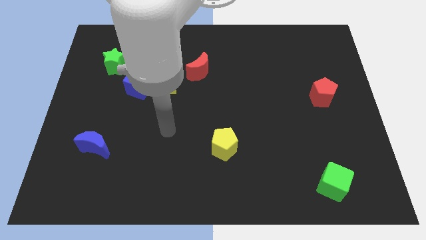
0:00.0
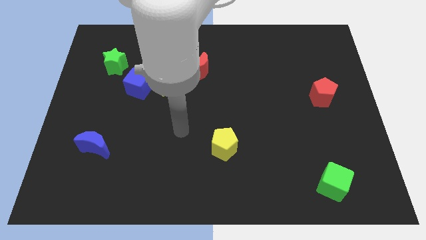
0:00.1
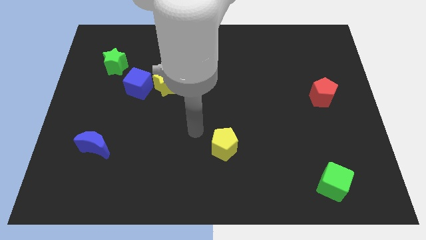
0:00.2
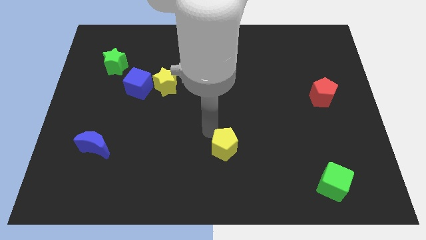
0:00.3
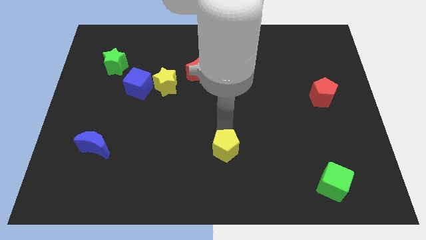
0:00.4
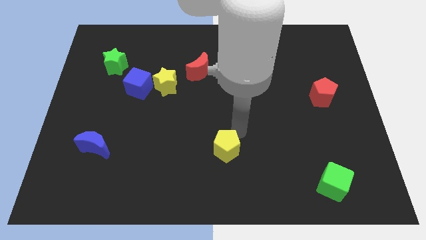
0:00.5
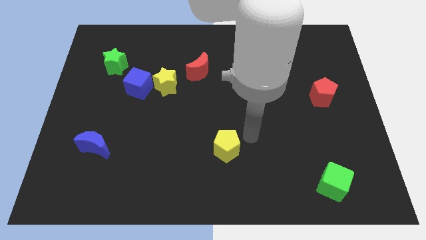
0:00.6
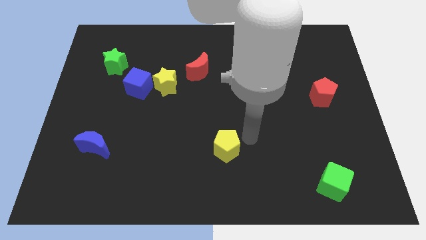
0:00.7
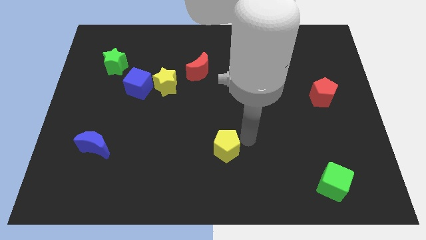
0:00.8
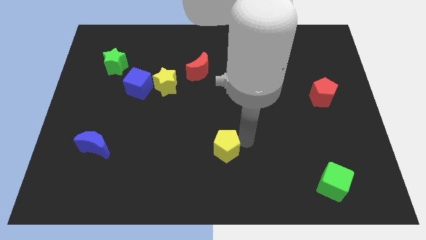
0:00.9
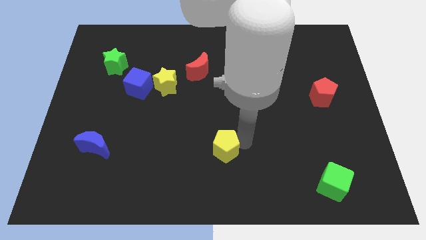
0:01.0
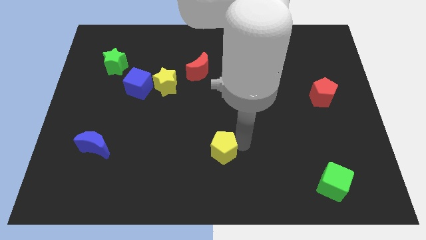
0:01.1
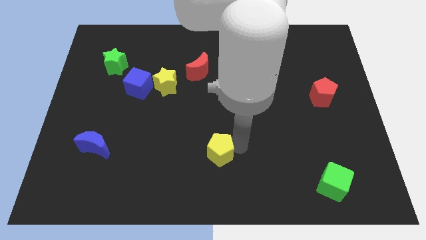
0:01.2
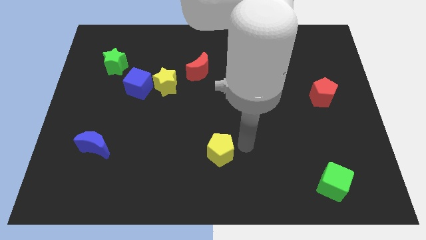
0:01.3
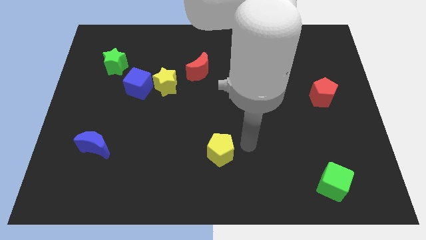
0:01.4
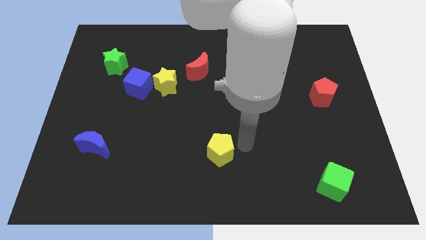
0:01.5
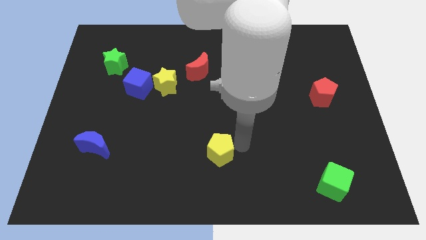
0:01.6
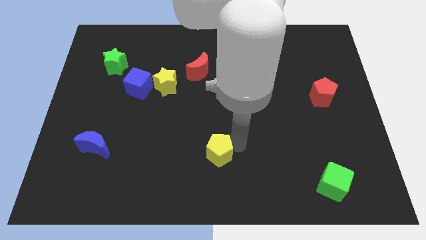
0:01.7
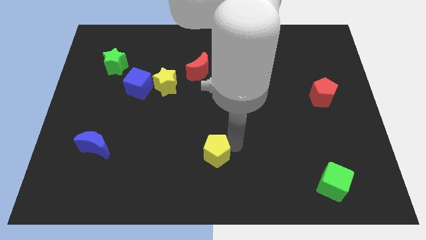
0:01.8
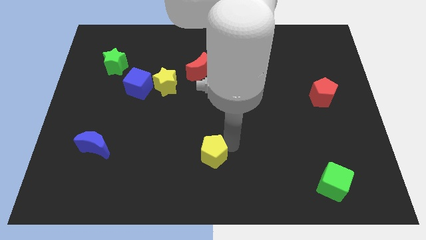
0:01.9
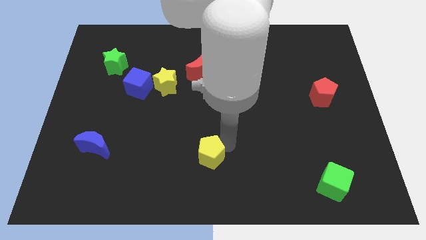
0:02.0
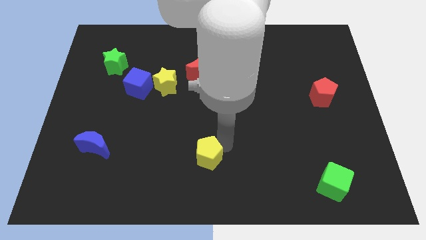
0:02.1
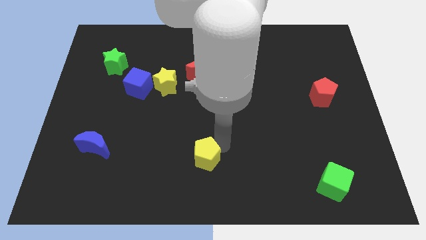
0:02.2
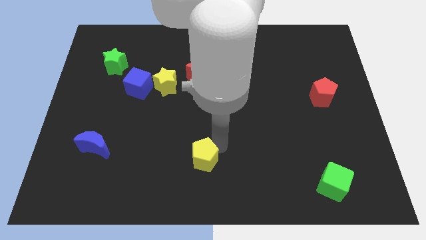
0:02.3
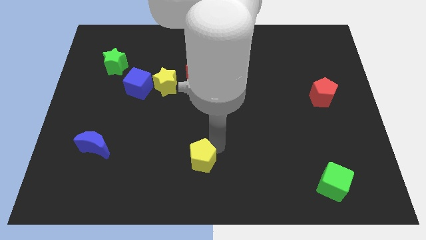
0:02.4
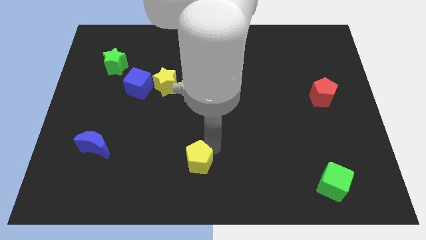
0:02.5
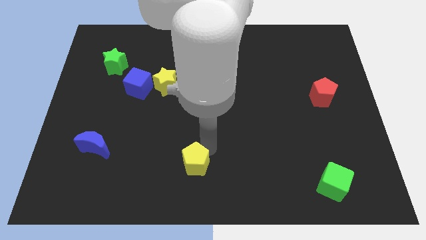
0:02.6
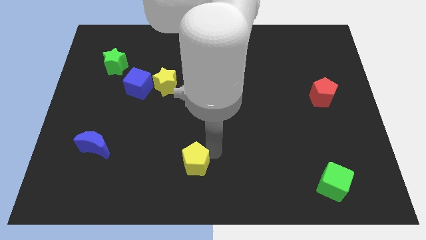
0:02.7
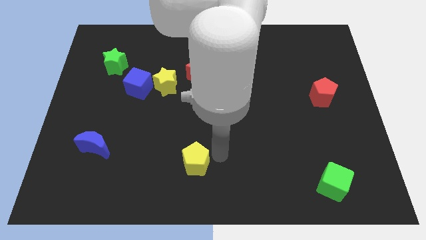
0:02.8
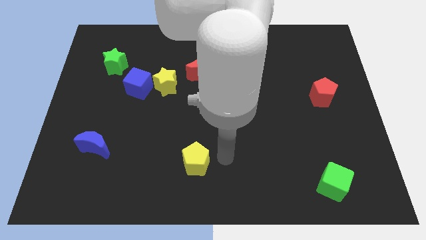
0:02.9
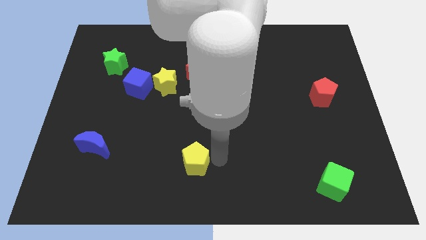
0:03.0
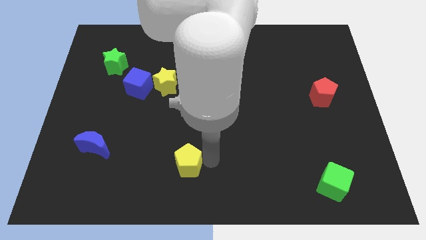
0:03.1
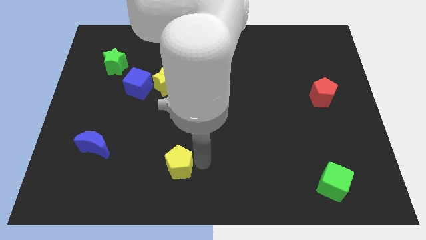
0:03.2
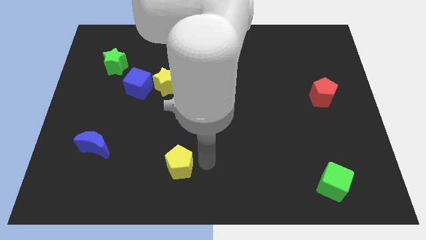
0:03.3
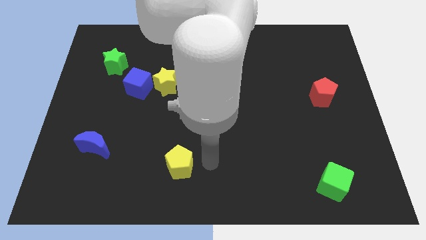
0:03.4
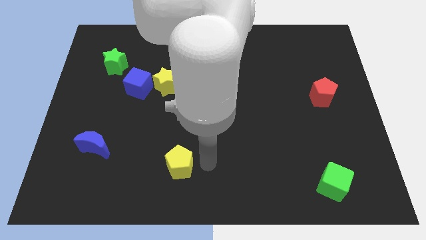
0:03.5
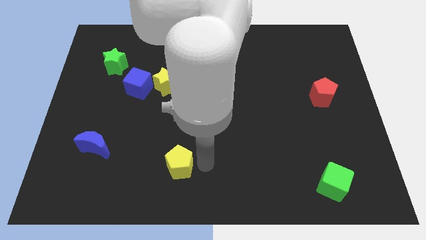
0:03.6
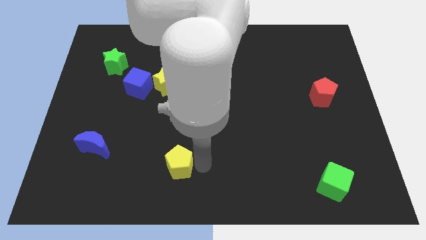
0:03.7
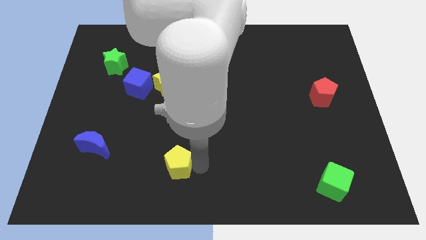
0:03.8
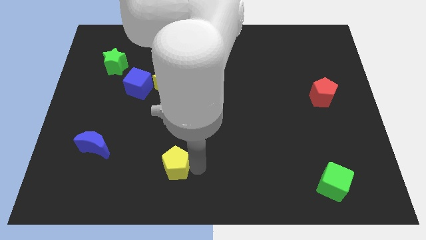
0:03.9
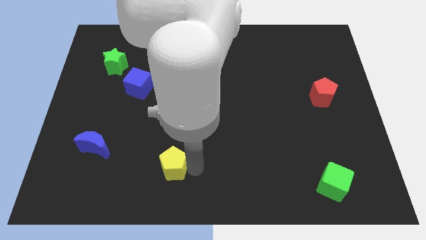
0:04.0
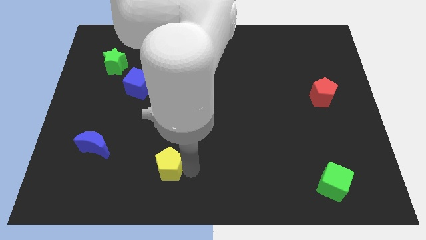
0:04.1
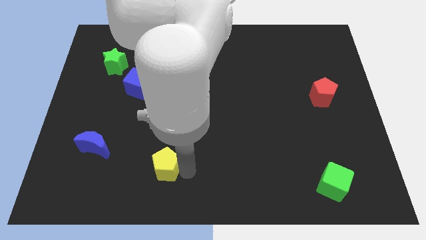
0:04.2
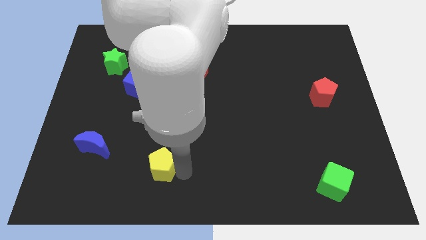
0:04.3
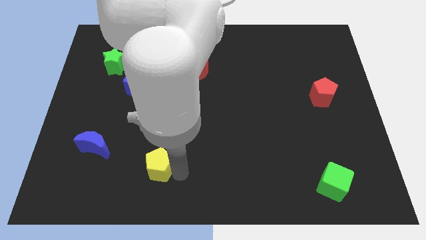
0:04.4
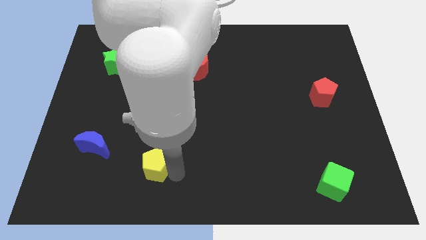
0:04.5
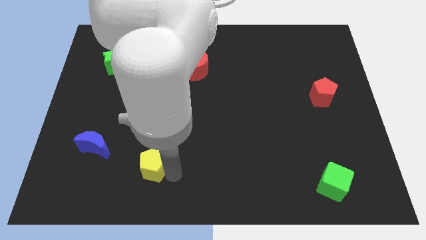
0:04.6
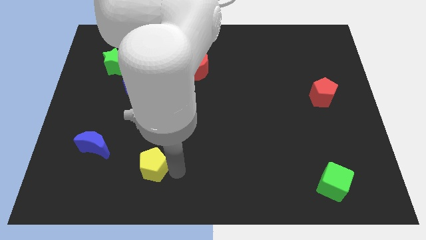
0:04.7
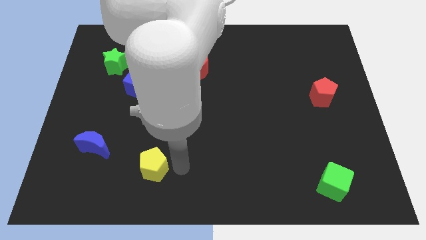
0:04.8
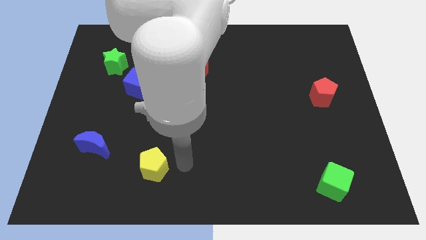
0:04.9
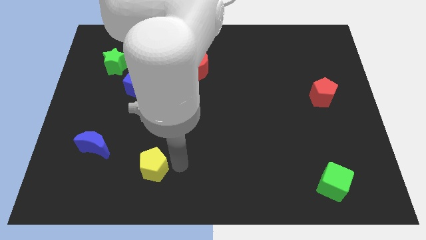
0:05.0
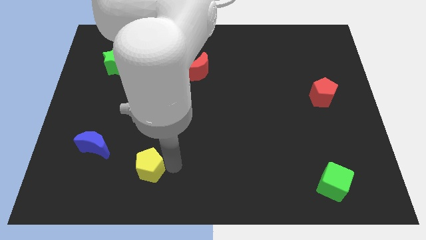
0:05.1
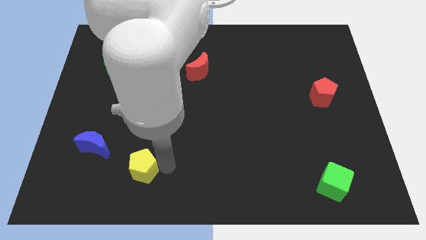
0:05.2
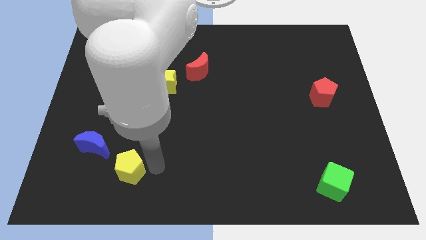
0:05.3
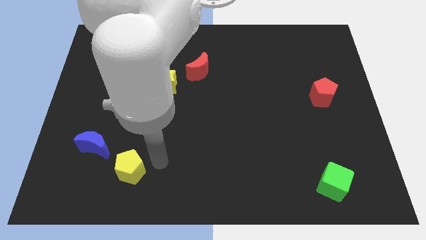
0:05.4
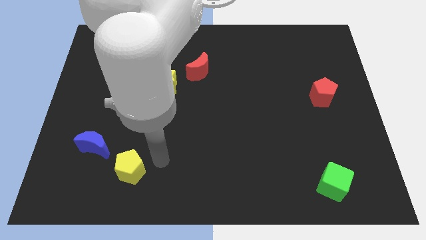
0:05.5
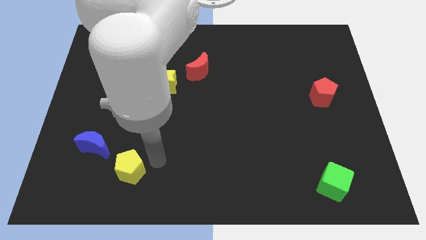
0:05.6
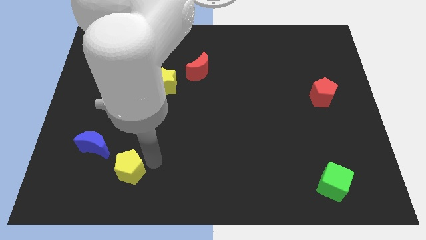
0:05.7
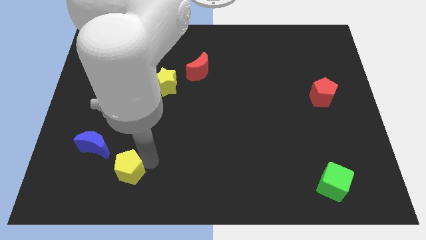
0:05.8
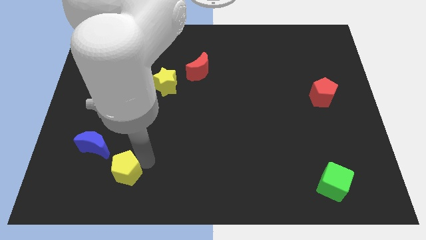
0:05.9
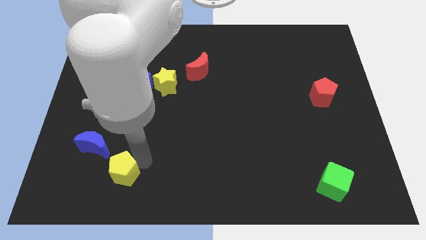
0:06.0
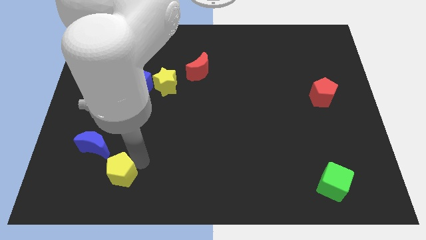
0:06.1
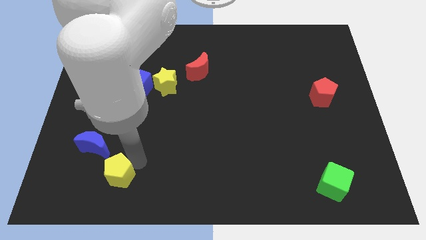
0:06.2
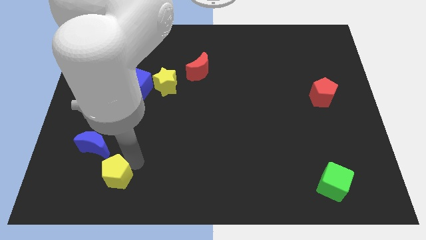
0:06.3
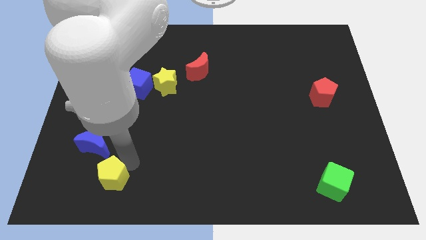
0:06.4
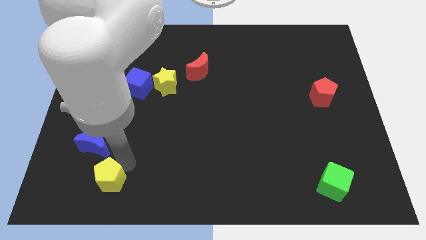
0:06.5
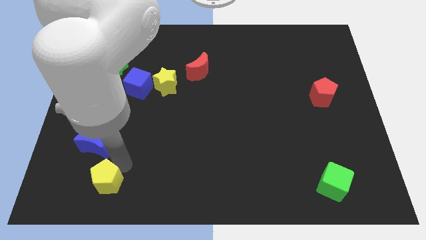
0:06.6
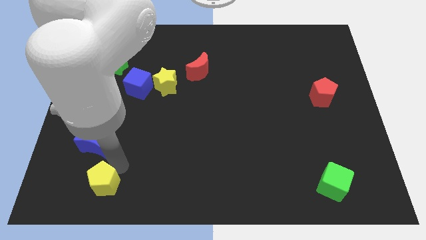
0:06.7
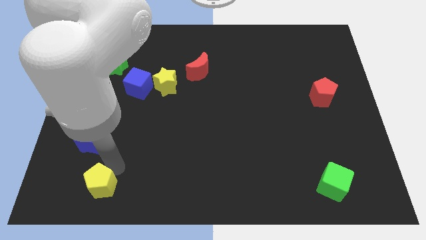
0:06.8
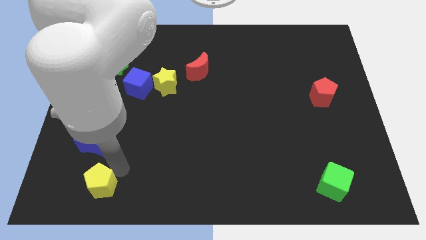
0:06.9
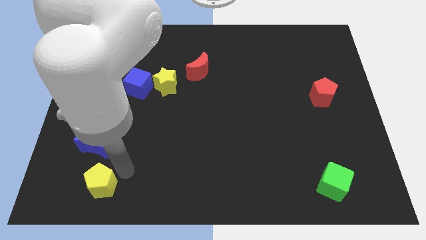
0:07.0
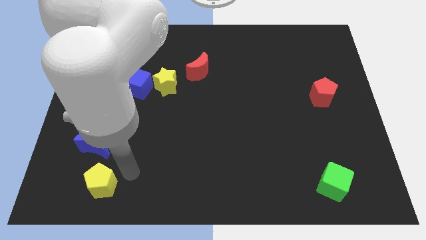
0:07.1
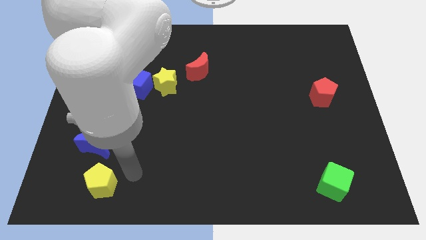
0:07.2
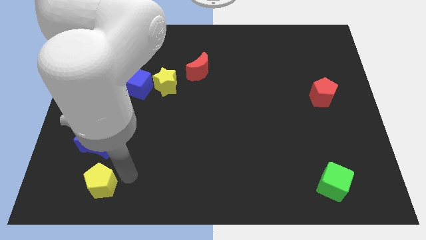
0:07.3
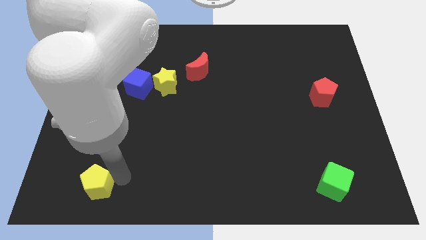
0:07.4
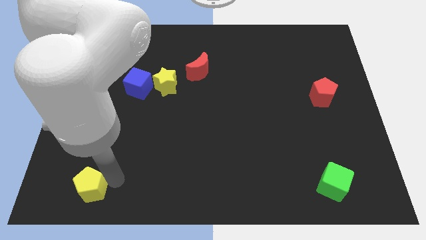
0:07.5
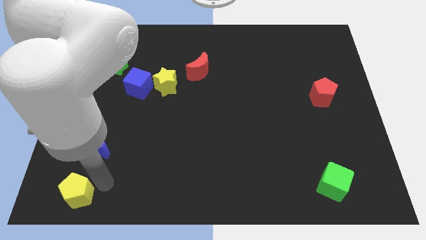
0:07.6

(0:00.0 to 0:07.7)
put the yellow pentagon to the bottom left corner
